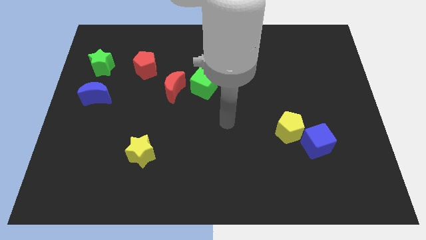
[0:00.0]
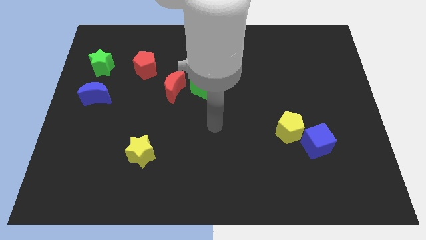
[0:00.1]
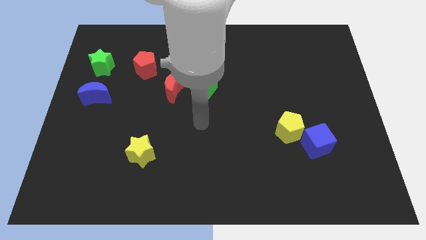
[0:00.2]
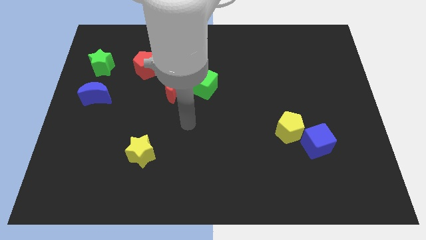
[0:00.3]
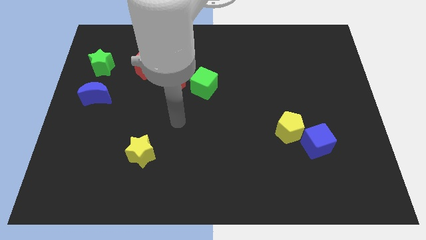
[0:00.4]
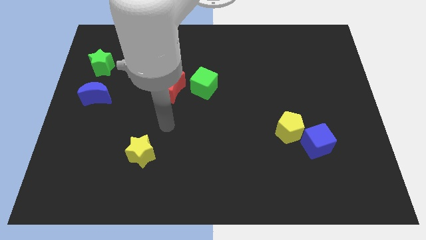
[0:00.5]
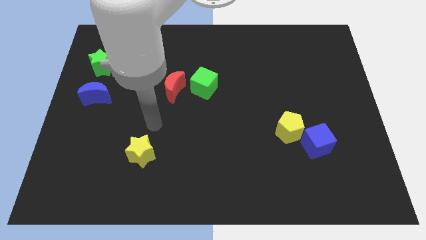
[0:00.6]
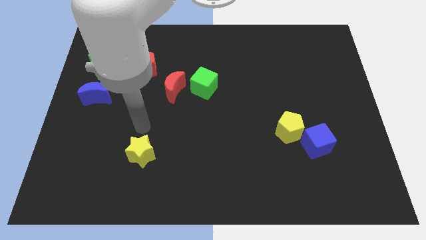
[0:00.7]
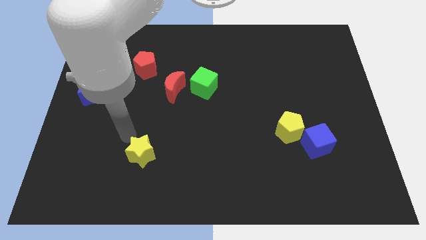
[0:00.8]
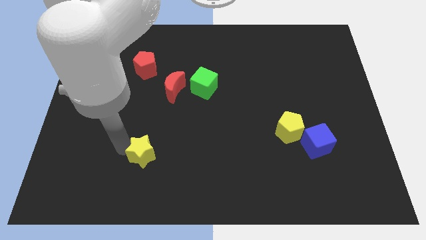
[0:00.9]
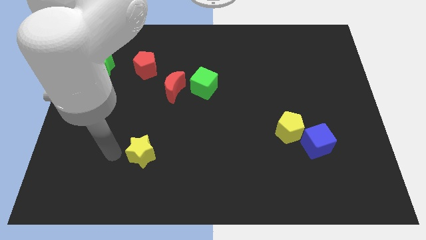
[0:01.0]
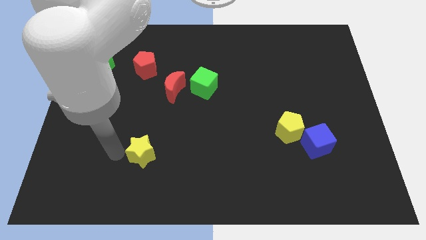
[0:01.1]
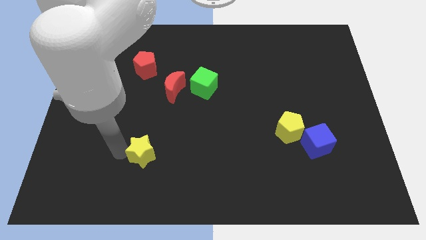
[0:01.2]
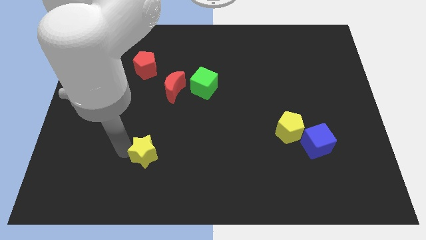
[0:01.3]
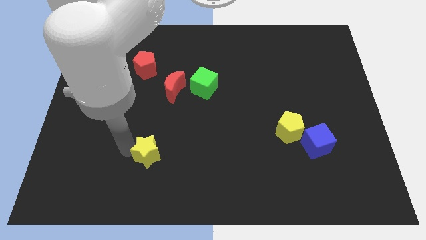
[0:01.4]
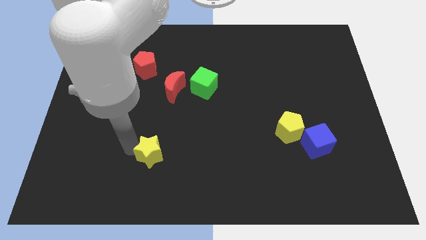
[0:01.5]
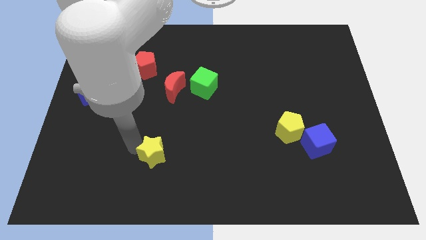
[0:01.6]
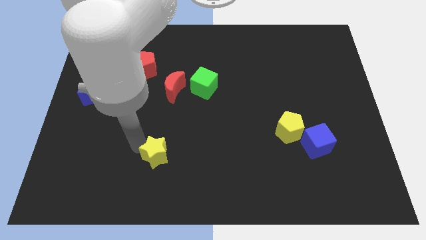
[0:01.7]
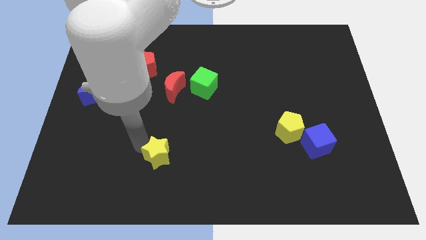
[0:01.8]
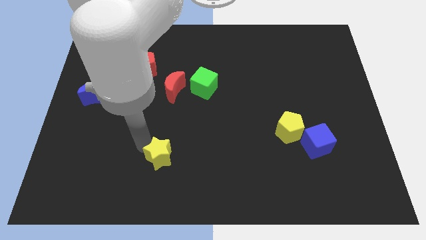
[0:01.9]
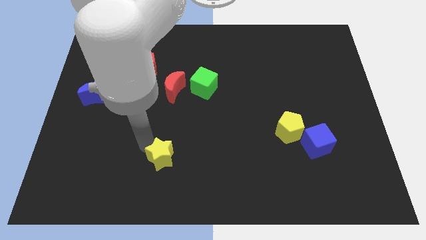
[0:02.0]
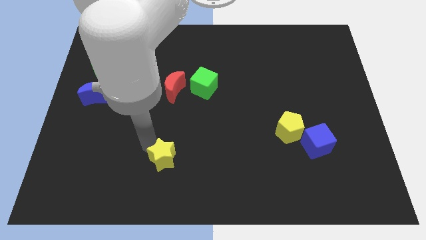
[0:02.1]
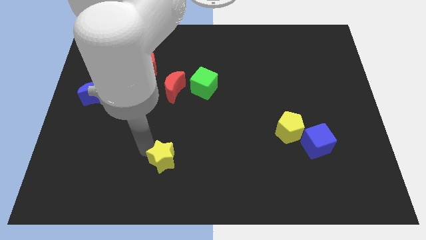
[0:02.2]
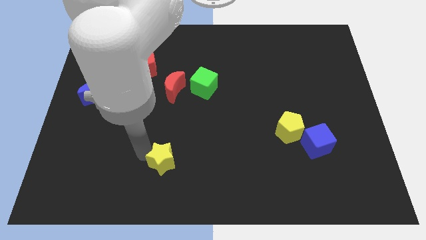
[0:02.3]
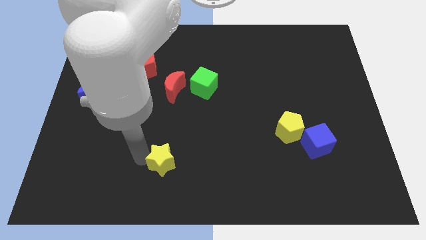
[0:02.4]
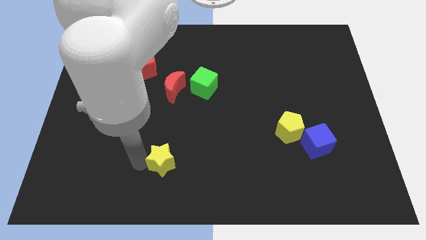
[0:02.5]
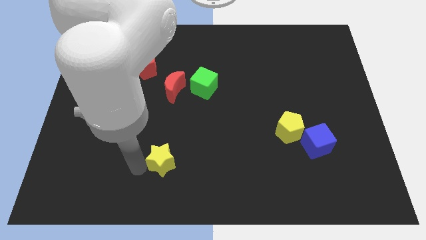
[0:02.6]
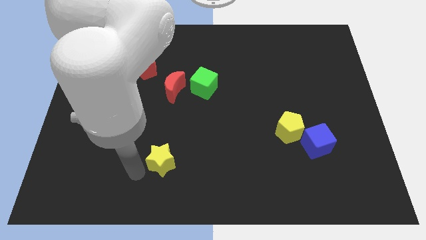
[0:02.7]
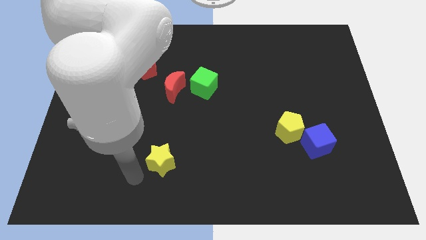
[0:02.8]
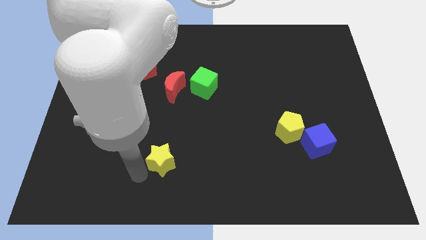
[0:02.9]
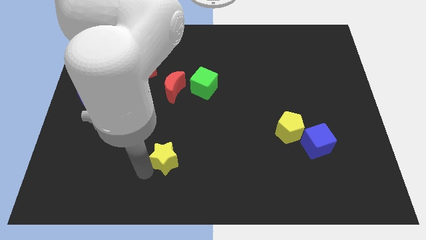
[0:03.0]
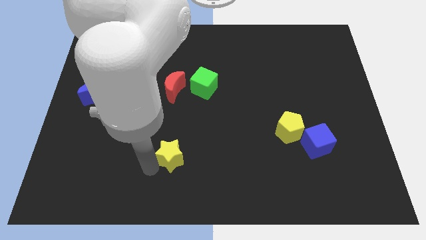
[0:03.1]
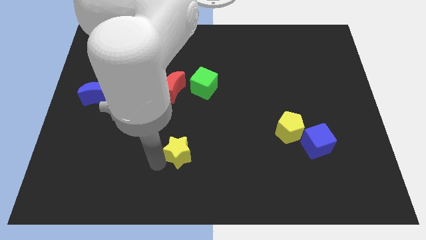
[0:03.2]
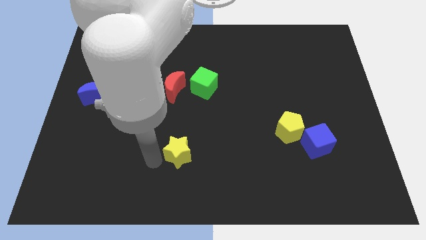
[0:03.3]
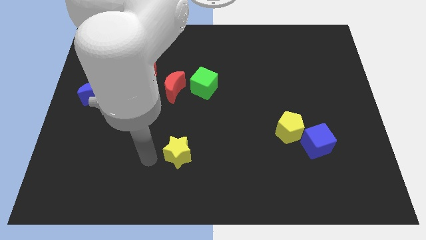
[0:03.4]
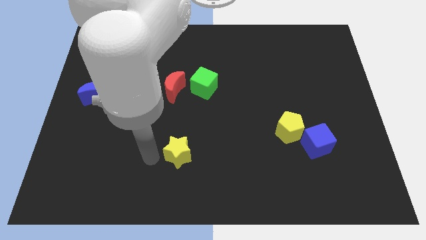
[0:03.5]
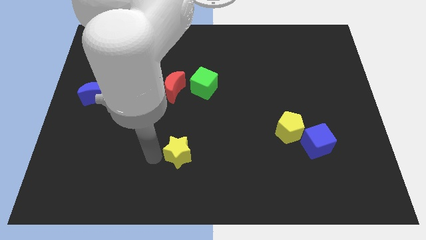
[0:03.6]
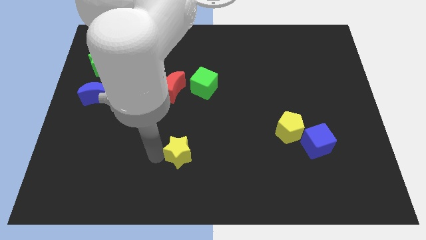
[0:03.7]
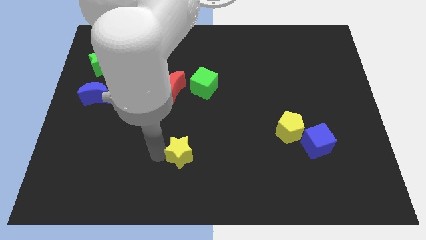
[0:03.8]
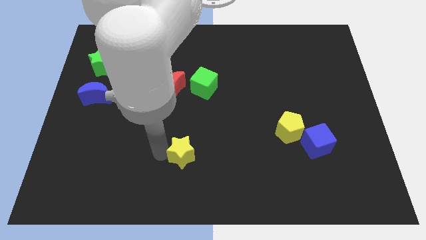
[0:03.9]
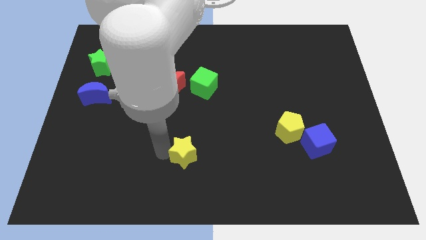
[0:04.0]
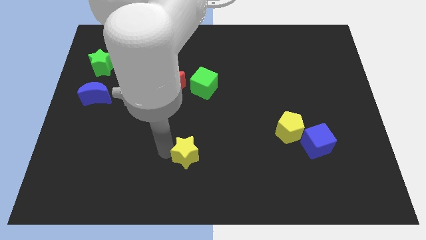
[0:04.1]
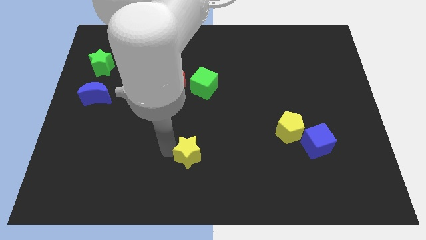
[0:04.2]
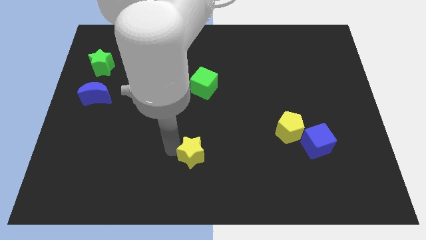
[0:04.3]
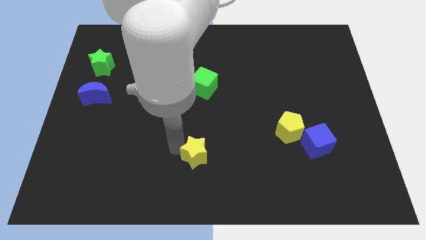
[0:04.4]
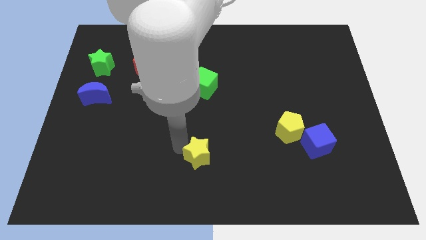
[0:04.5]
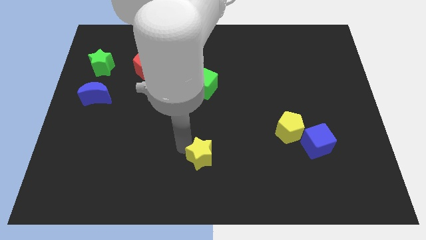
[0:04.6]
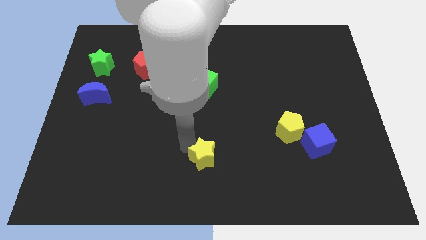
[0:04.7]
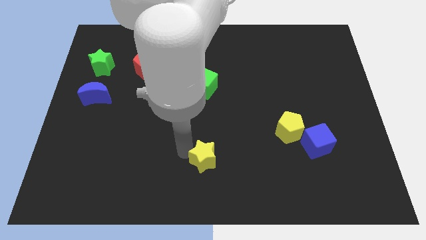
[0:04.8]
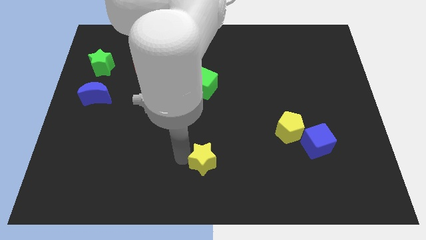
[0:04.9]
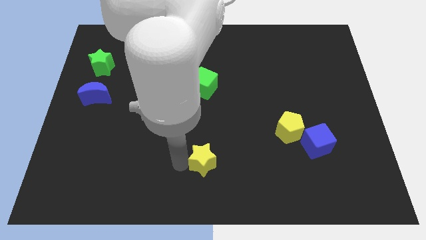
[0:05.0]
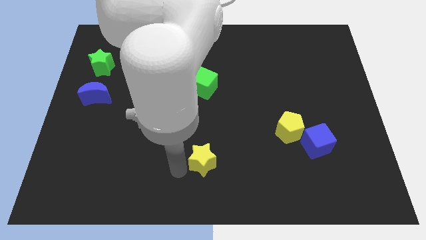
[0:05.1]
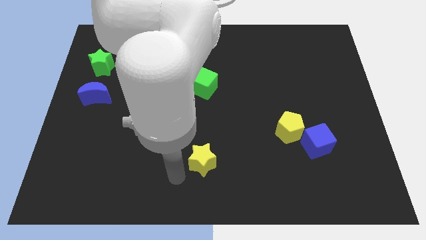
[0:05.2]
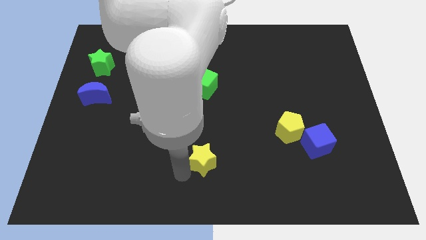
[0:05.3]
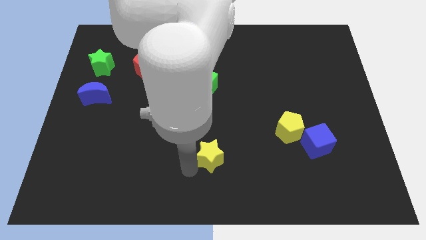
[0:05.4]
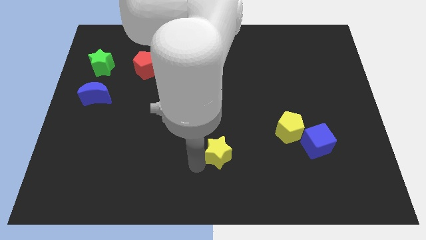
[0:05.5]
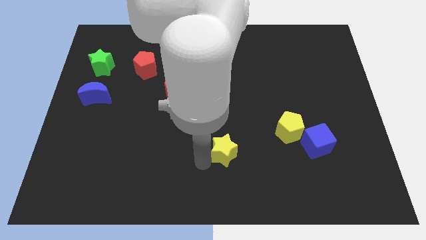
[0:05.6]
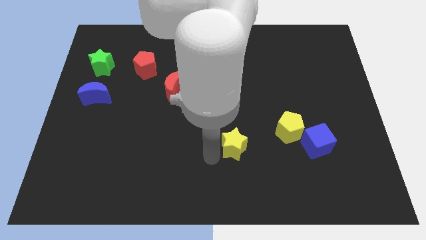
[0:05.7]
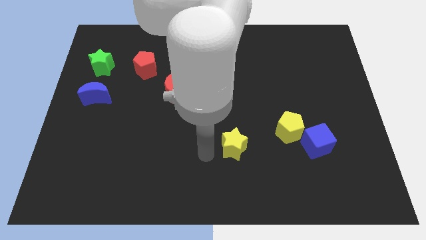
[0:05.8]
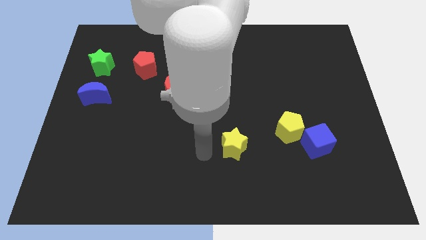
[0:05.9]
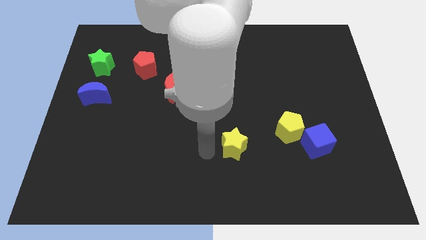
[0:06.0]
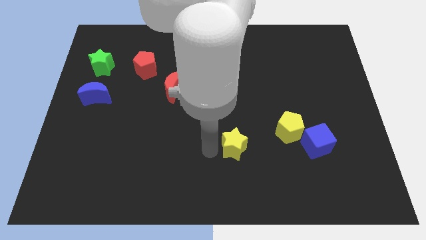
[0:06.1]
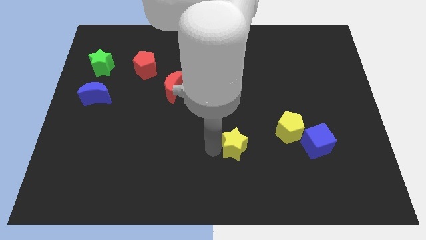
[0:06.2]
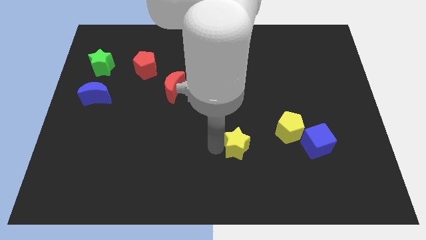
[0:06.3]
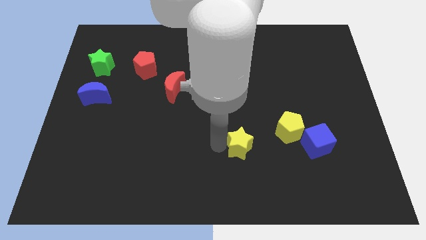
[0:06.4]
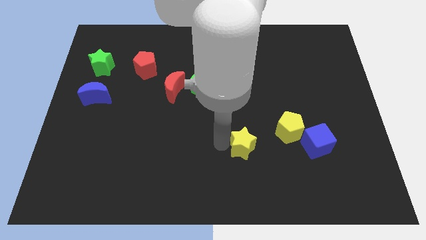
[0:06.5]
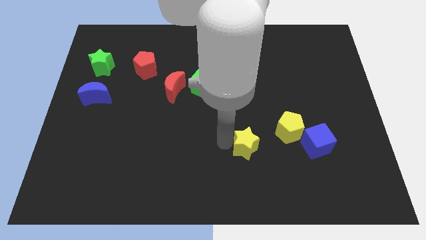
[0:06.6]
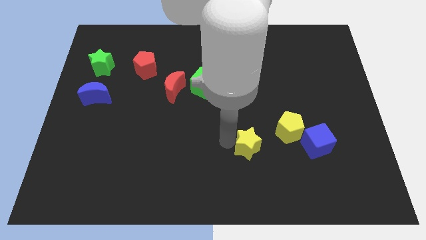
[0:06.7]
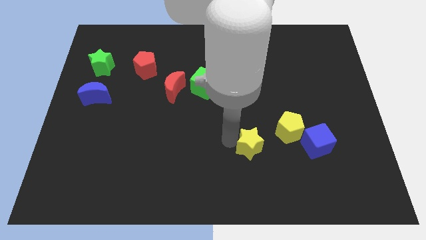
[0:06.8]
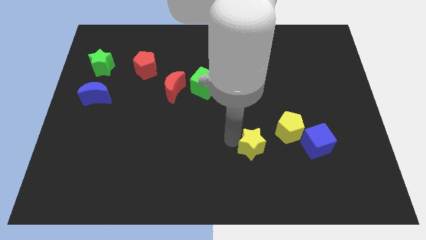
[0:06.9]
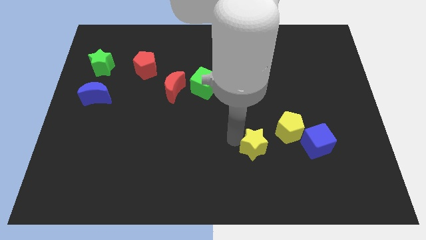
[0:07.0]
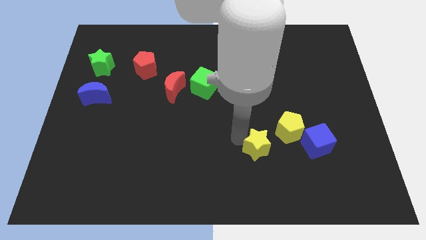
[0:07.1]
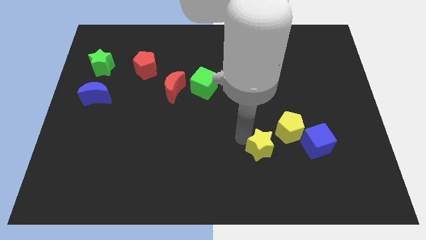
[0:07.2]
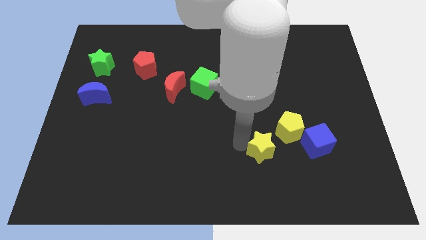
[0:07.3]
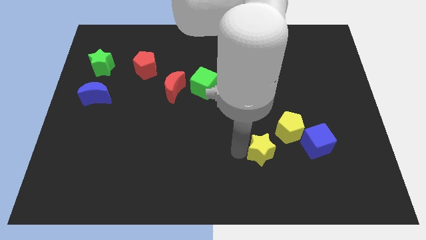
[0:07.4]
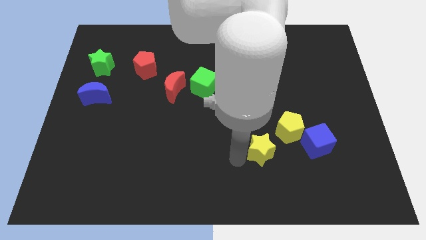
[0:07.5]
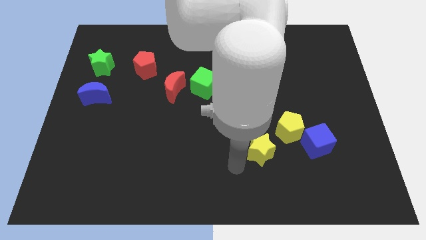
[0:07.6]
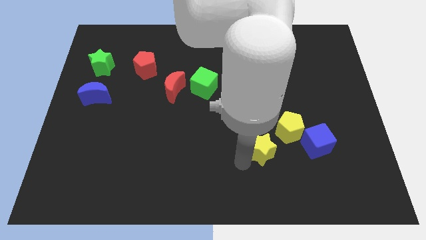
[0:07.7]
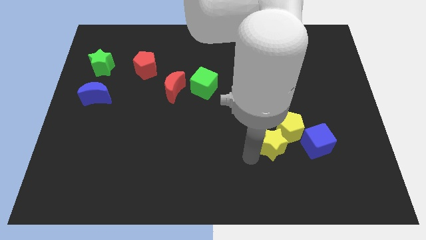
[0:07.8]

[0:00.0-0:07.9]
put the yellow star close to the yellow pentagon
